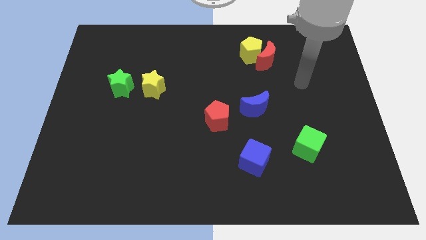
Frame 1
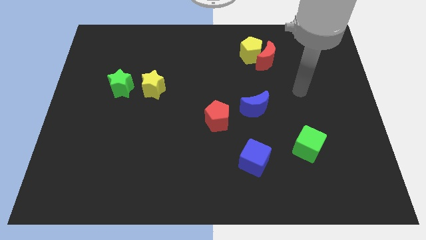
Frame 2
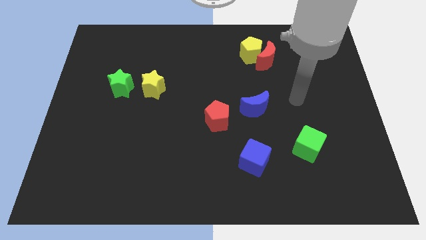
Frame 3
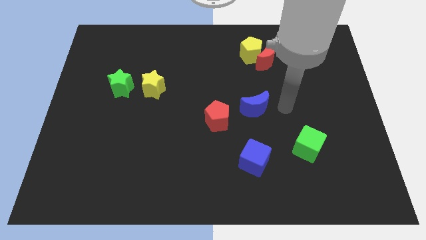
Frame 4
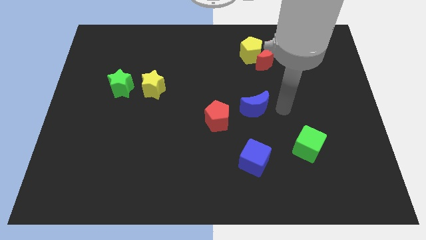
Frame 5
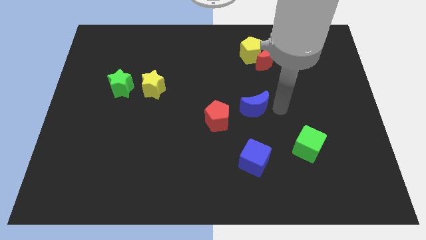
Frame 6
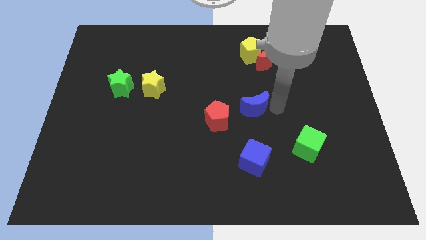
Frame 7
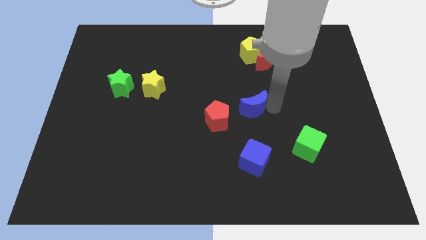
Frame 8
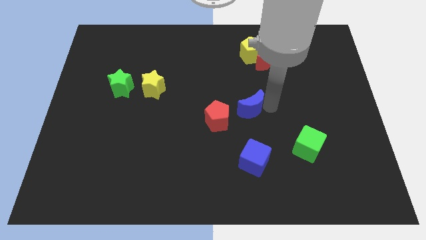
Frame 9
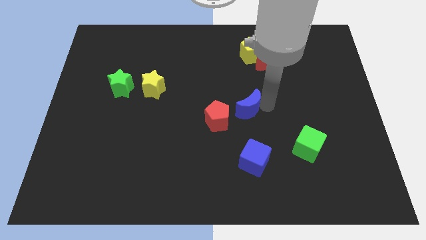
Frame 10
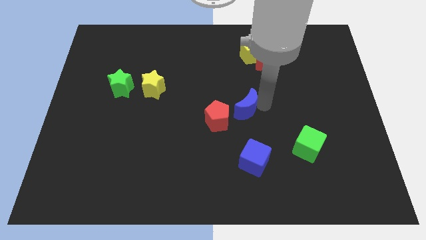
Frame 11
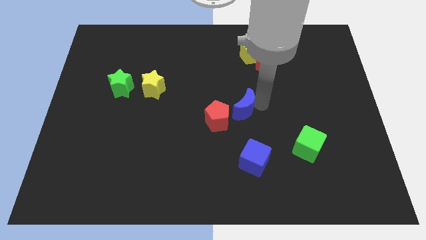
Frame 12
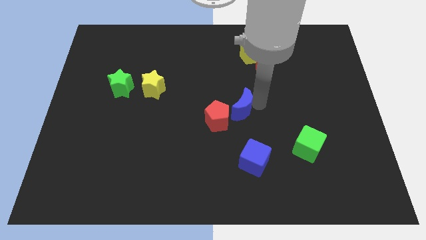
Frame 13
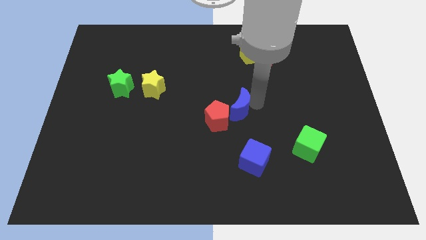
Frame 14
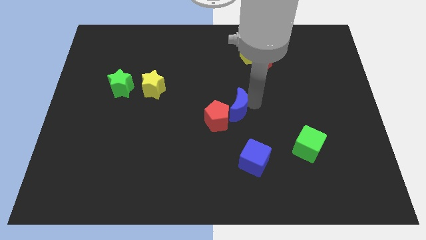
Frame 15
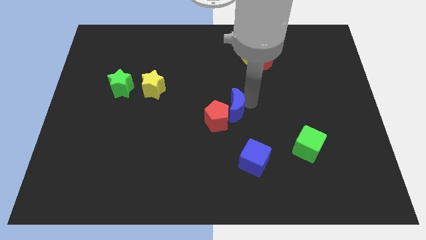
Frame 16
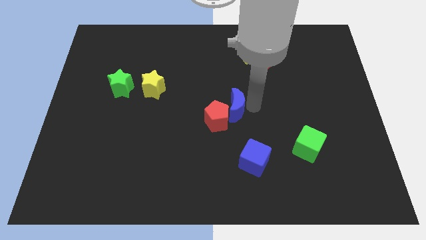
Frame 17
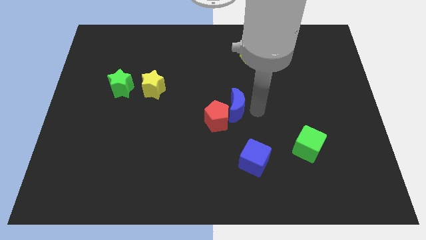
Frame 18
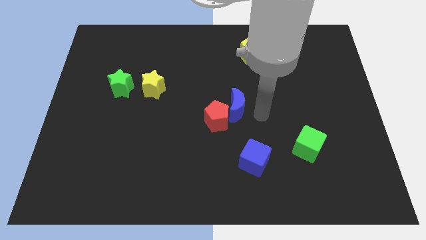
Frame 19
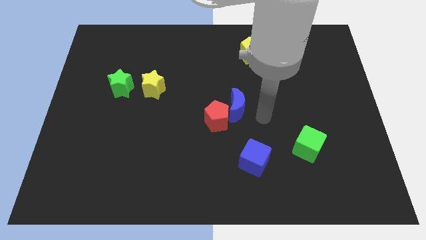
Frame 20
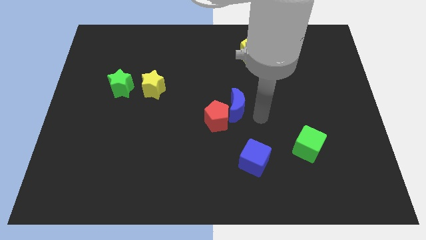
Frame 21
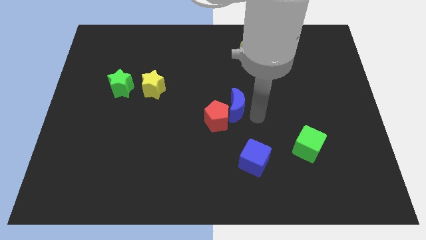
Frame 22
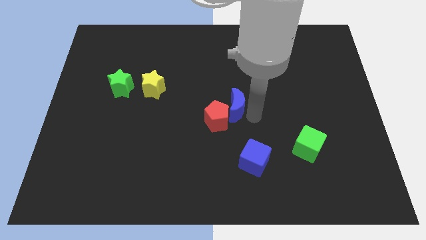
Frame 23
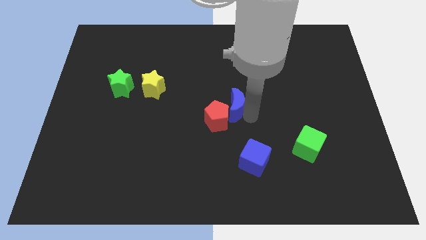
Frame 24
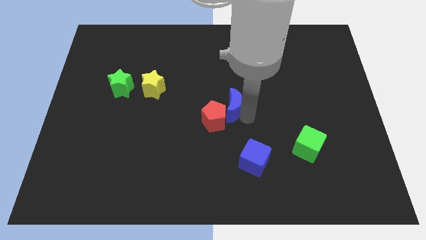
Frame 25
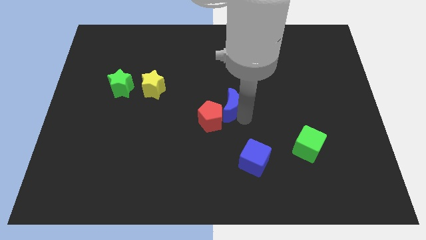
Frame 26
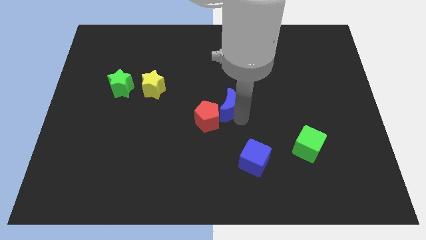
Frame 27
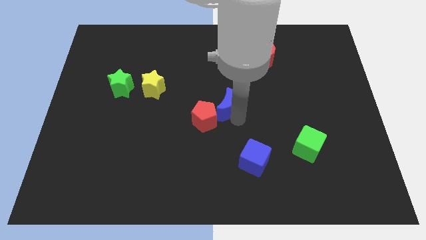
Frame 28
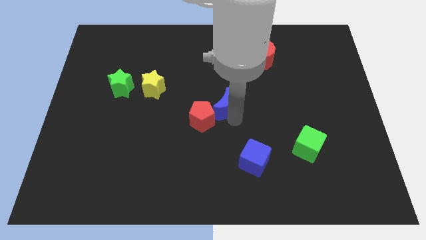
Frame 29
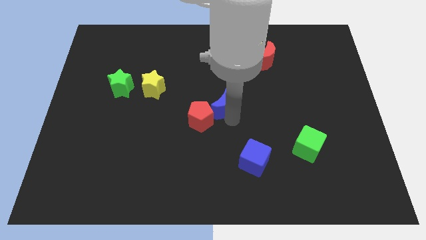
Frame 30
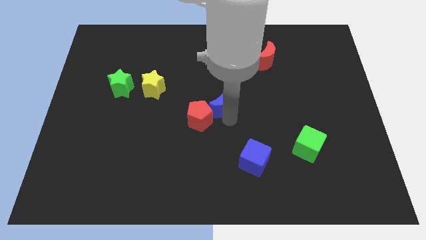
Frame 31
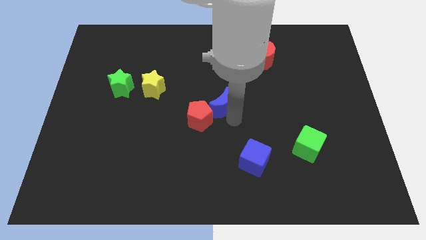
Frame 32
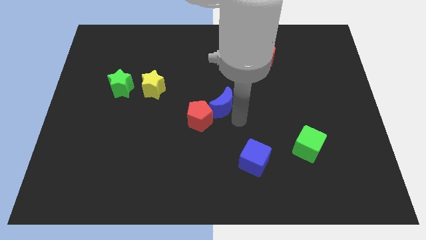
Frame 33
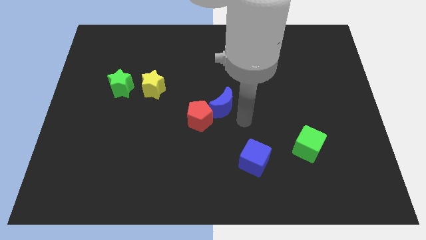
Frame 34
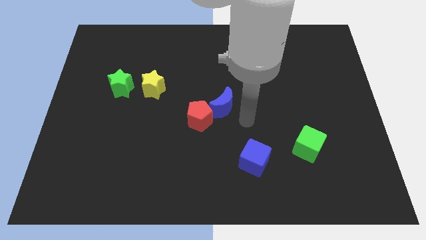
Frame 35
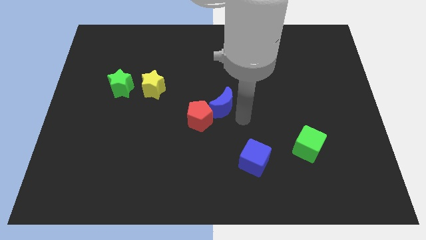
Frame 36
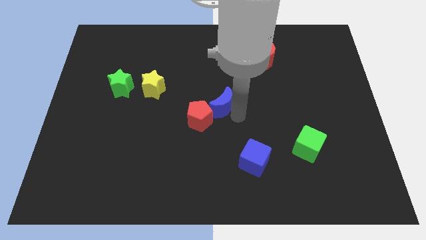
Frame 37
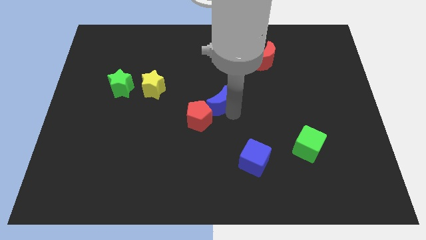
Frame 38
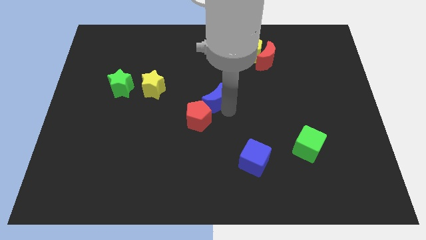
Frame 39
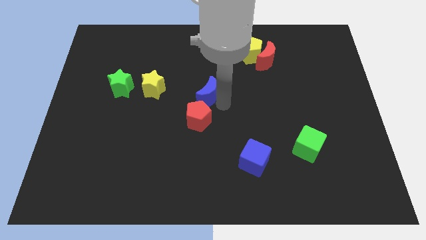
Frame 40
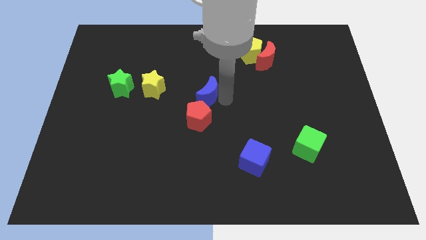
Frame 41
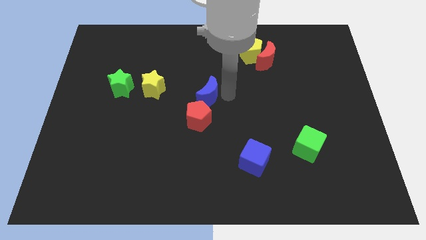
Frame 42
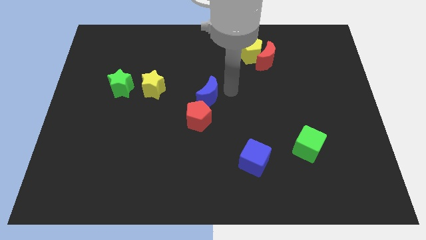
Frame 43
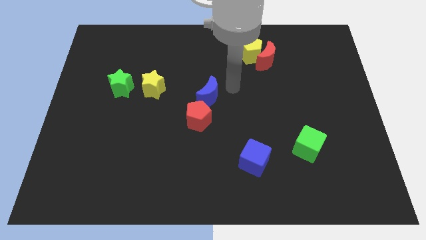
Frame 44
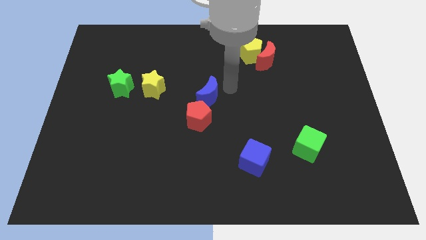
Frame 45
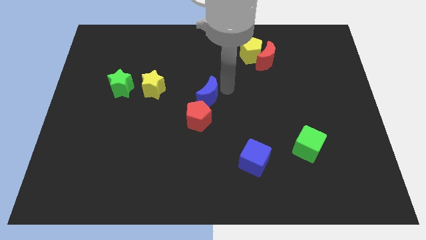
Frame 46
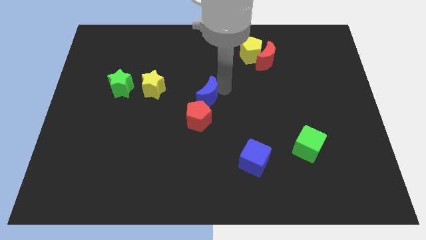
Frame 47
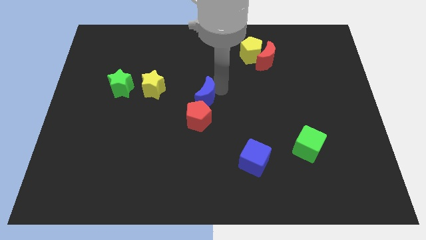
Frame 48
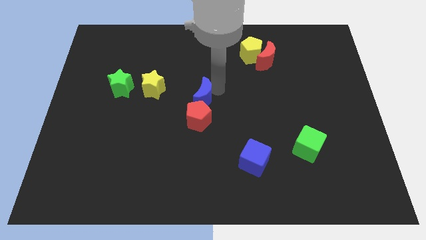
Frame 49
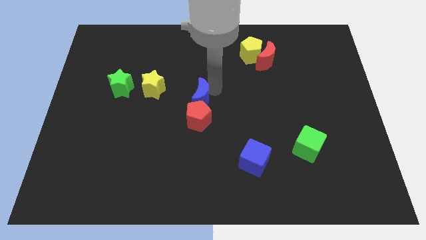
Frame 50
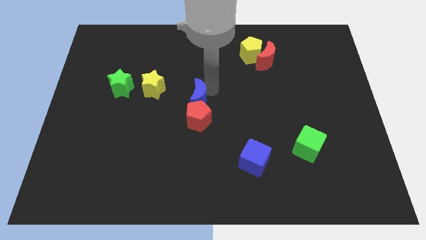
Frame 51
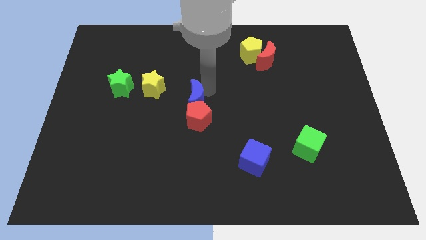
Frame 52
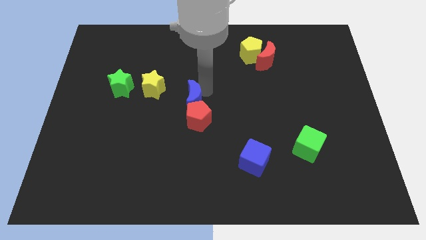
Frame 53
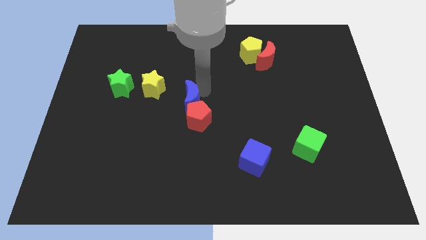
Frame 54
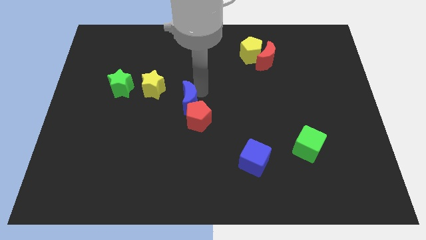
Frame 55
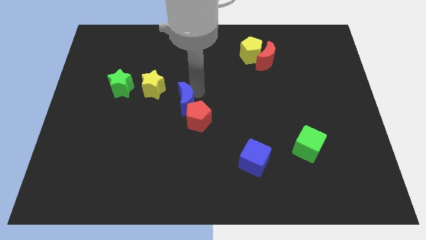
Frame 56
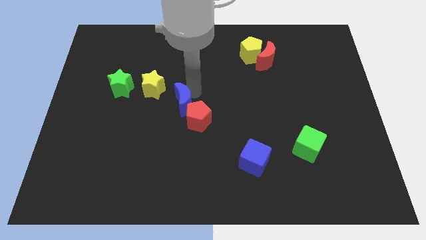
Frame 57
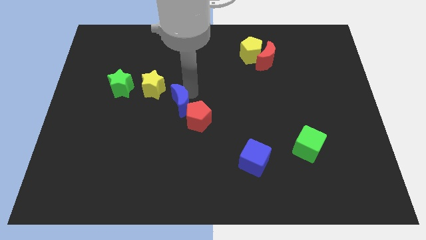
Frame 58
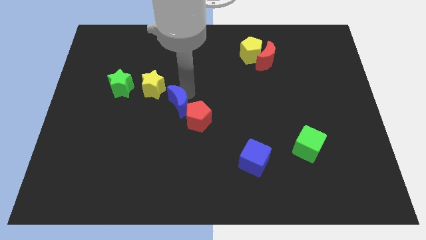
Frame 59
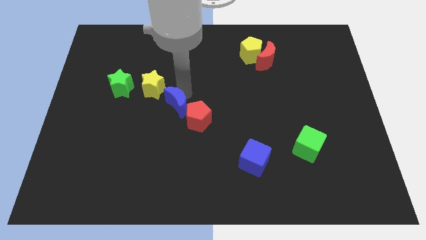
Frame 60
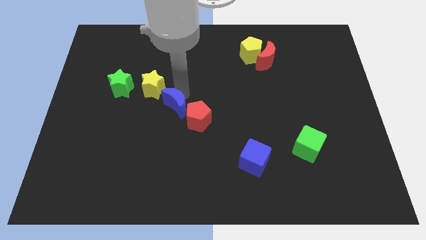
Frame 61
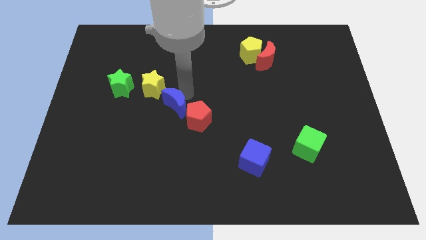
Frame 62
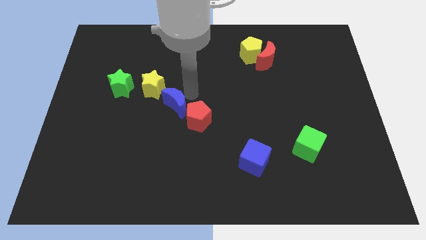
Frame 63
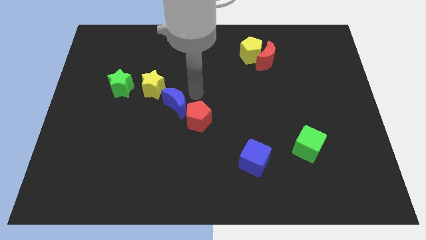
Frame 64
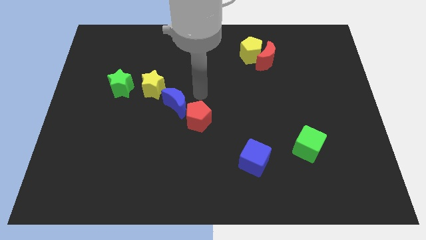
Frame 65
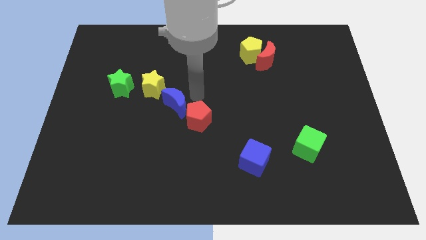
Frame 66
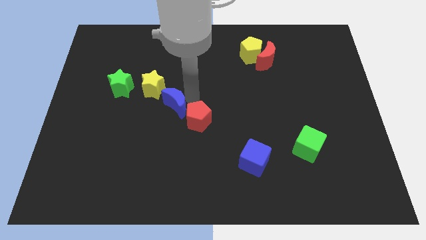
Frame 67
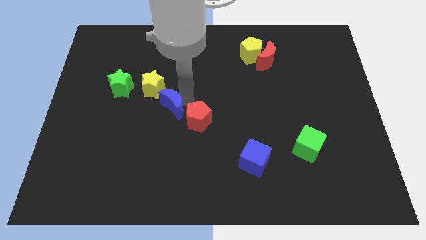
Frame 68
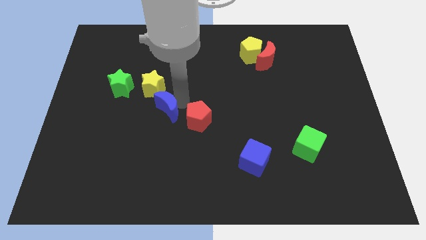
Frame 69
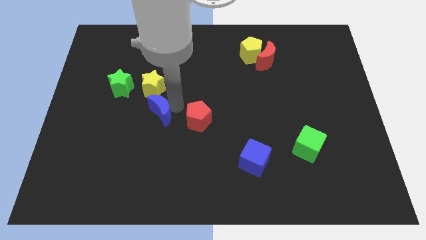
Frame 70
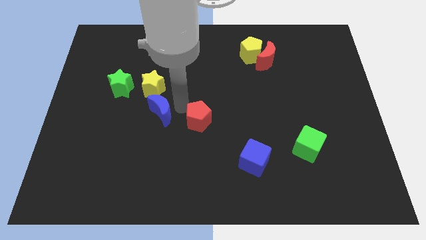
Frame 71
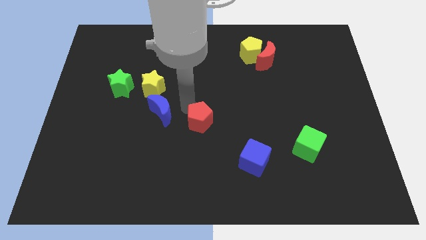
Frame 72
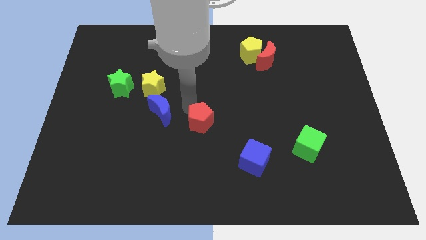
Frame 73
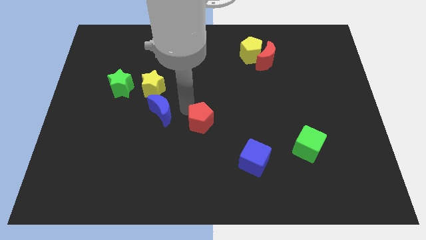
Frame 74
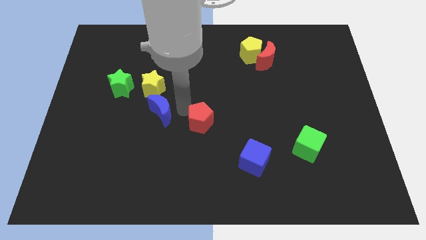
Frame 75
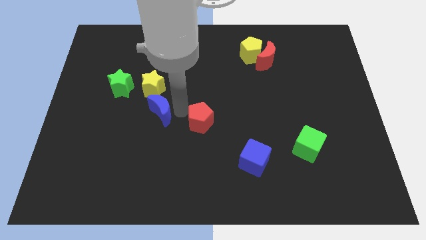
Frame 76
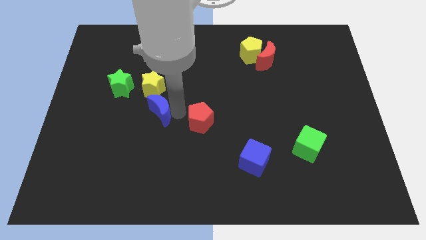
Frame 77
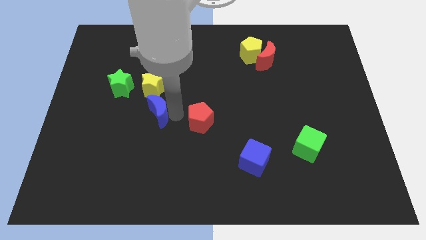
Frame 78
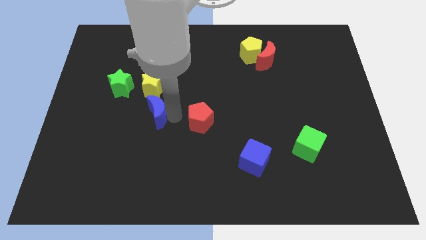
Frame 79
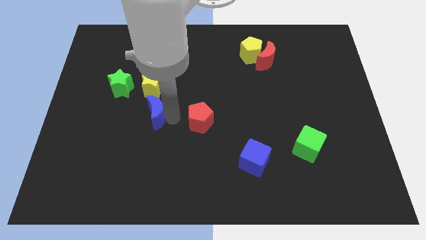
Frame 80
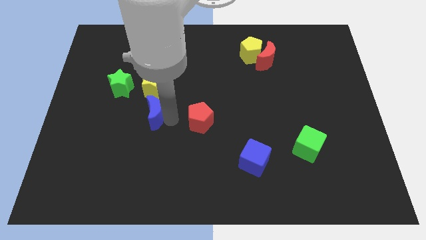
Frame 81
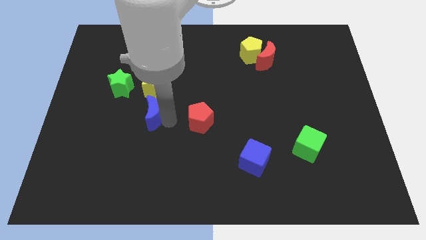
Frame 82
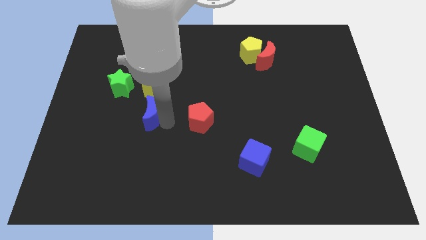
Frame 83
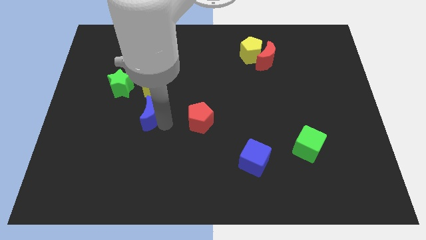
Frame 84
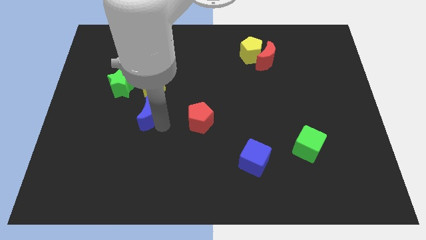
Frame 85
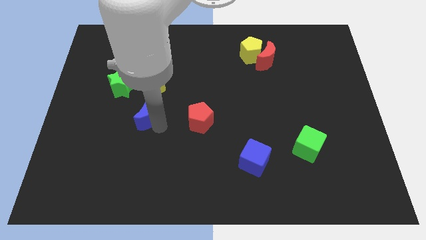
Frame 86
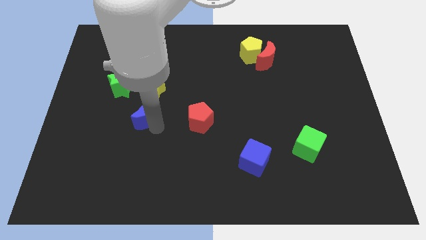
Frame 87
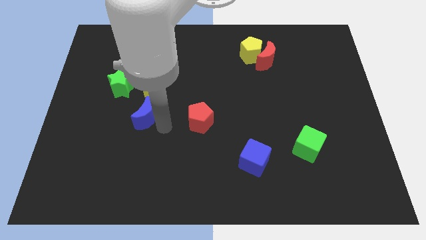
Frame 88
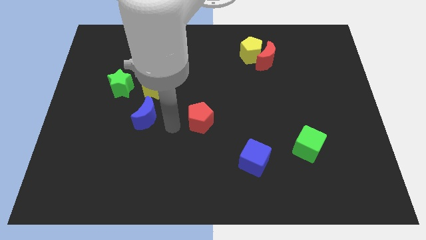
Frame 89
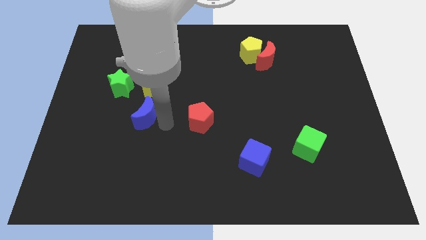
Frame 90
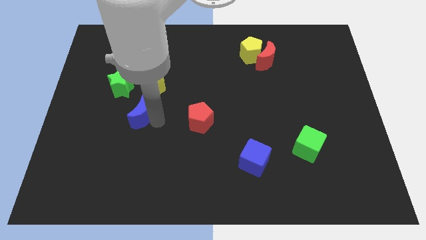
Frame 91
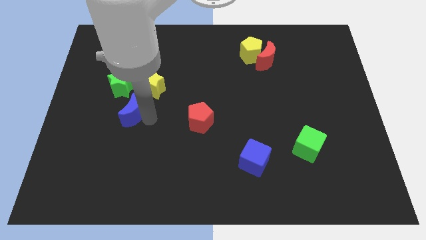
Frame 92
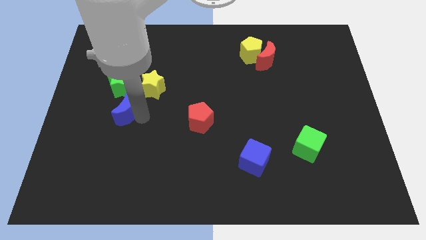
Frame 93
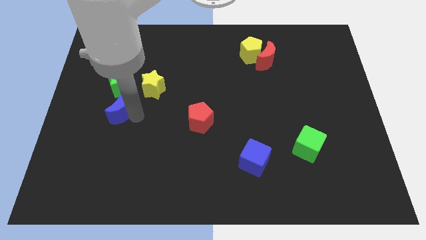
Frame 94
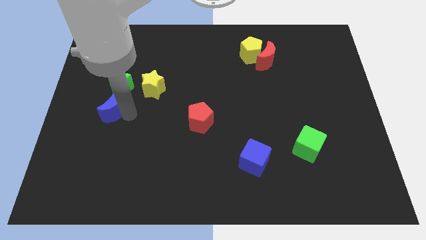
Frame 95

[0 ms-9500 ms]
put the blue moon to the bottom left of the green star
